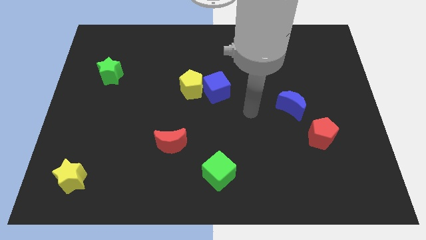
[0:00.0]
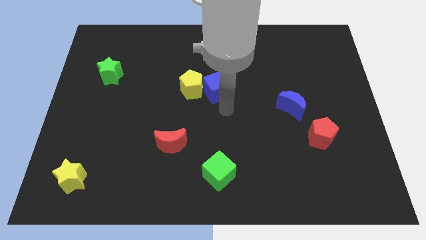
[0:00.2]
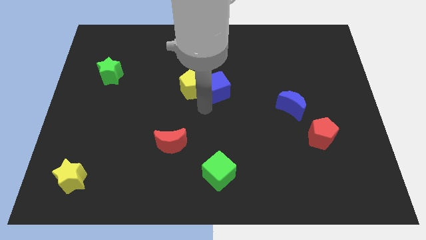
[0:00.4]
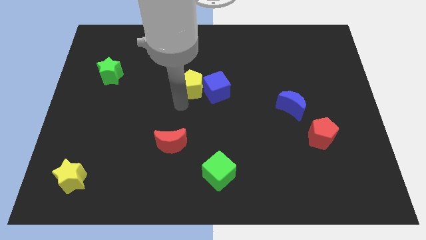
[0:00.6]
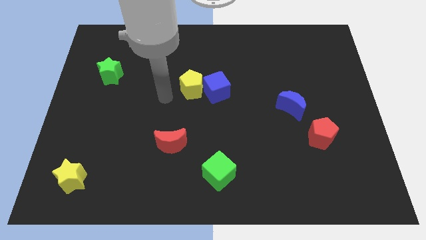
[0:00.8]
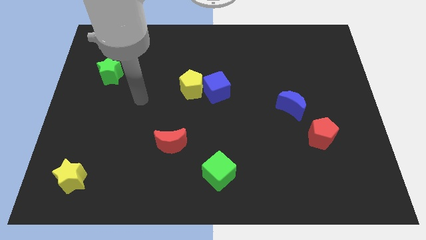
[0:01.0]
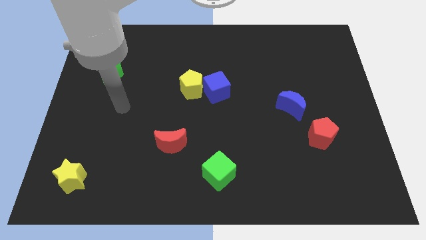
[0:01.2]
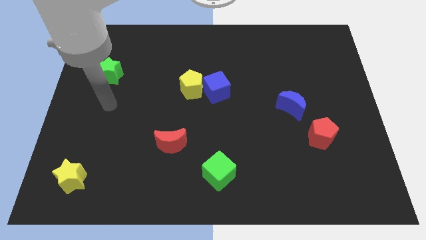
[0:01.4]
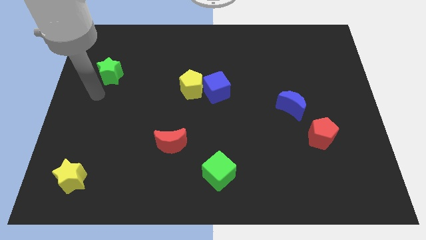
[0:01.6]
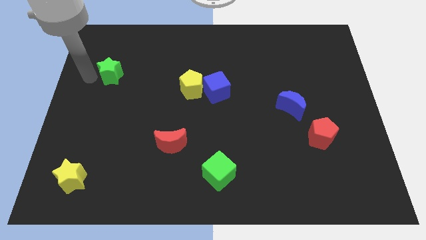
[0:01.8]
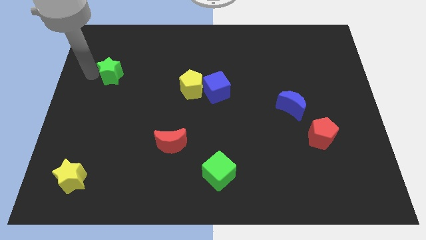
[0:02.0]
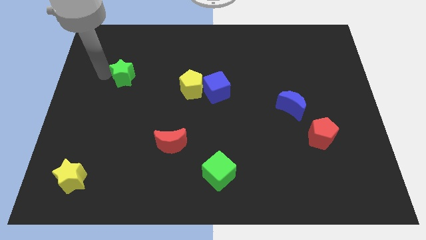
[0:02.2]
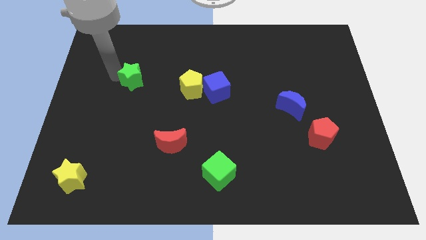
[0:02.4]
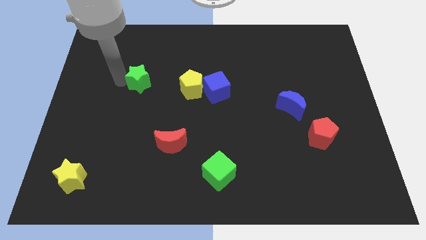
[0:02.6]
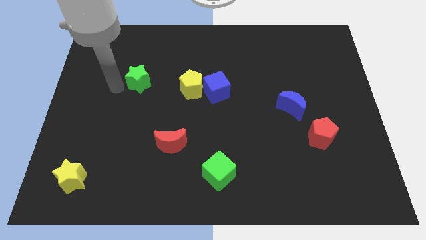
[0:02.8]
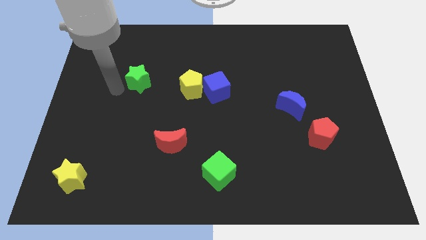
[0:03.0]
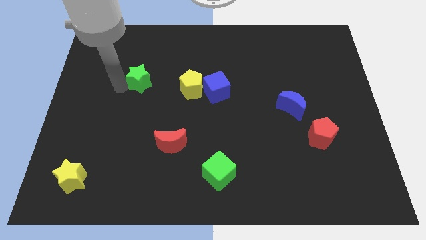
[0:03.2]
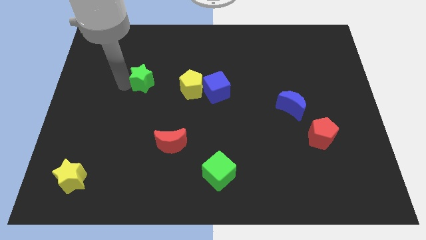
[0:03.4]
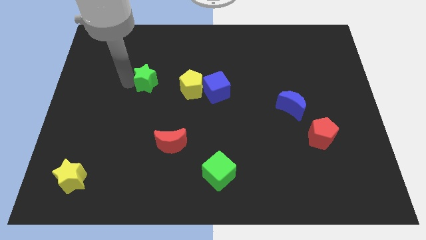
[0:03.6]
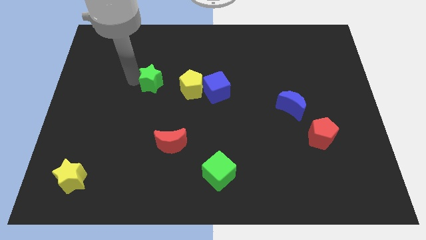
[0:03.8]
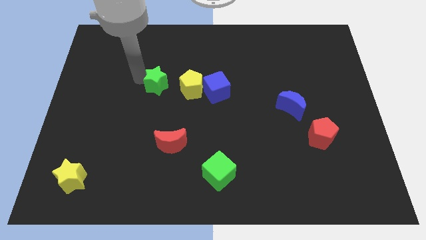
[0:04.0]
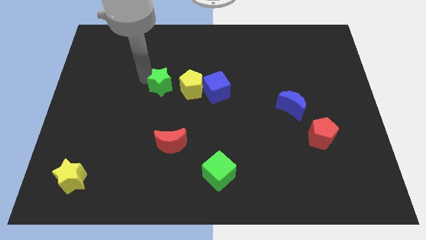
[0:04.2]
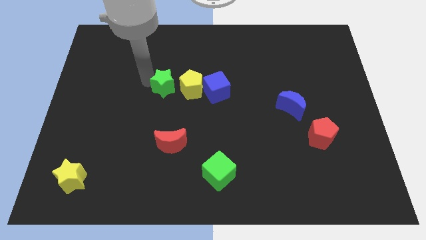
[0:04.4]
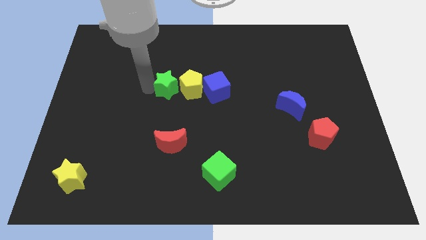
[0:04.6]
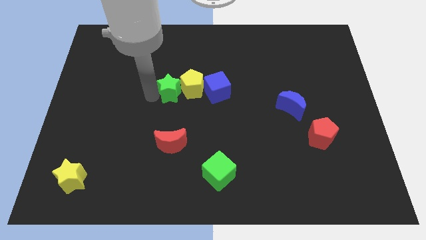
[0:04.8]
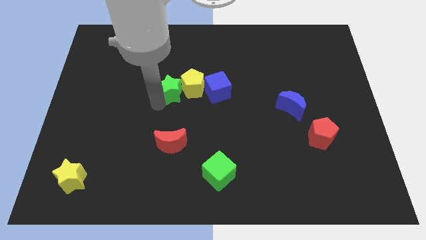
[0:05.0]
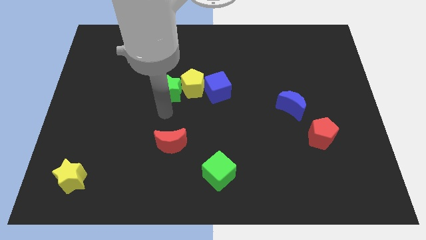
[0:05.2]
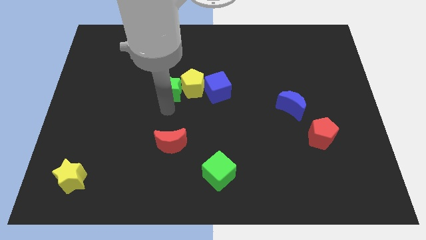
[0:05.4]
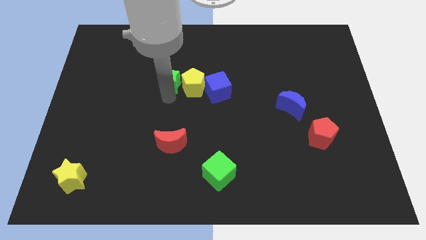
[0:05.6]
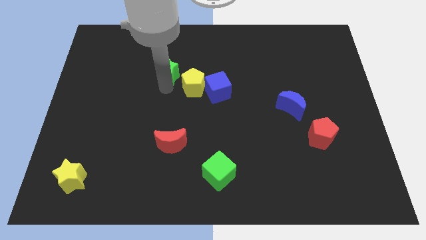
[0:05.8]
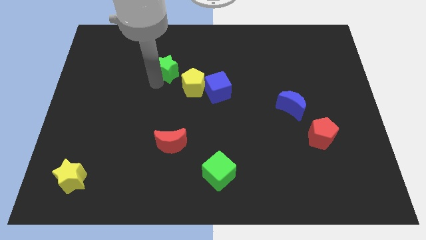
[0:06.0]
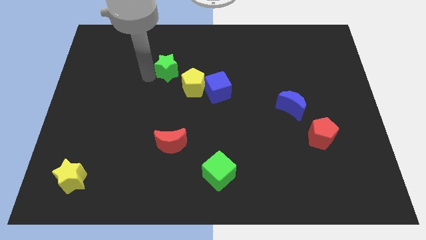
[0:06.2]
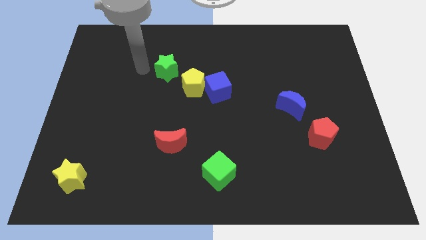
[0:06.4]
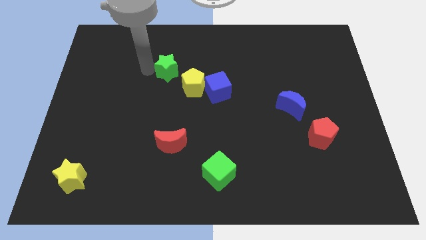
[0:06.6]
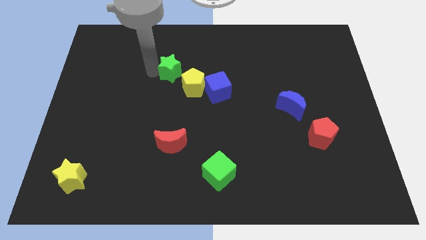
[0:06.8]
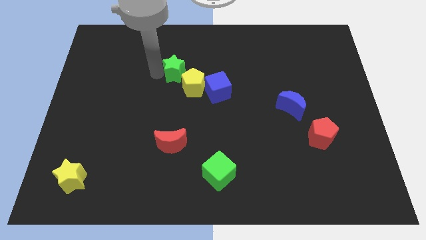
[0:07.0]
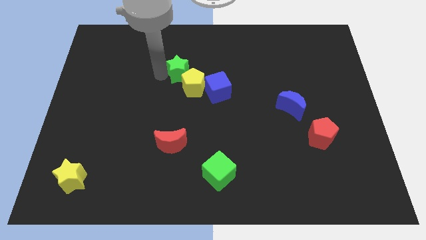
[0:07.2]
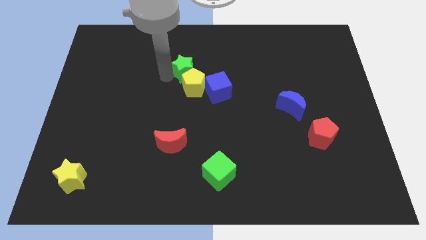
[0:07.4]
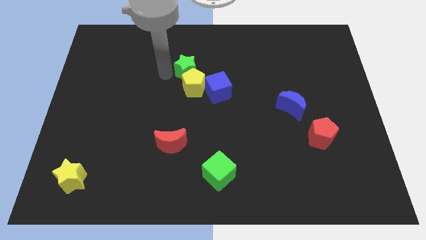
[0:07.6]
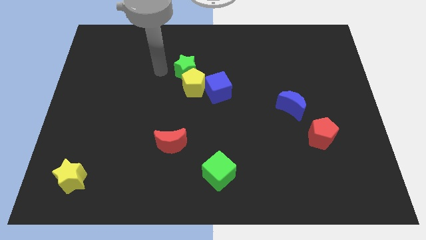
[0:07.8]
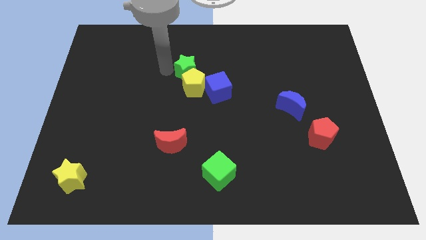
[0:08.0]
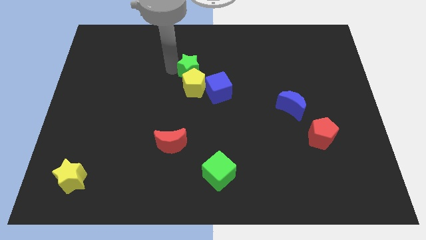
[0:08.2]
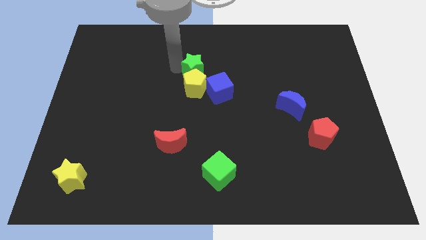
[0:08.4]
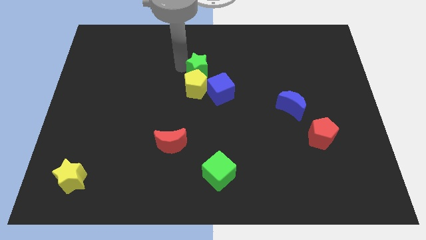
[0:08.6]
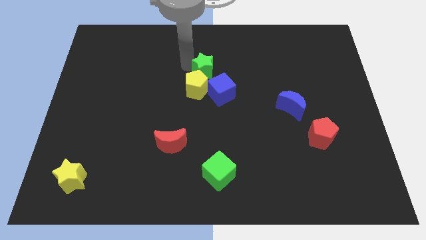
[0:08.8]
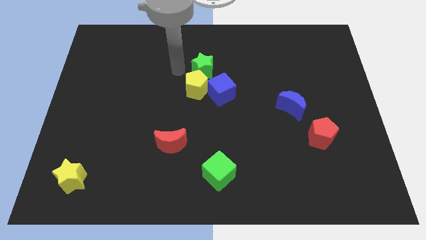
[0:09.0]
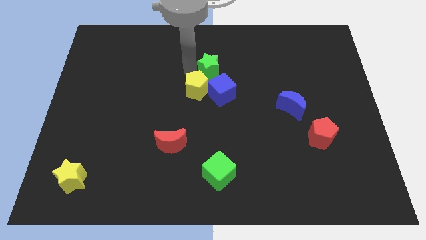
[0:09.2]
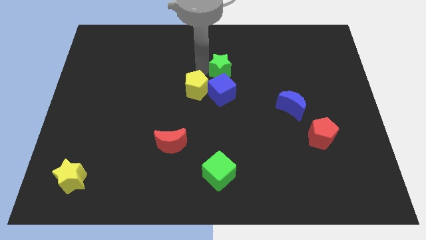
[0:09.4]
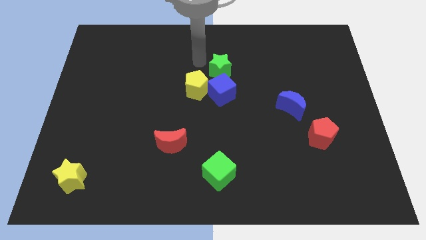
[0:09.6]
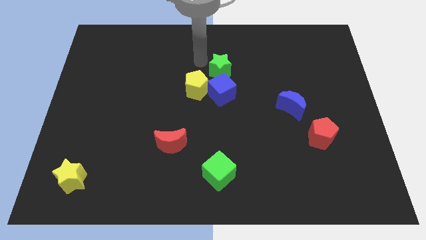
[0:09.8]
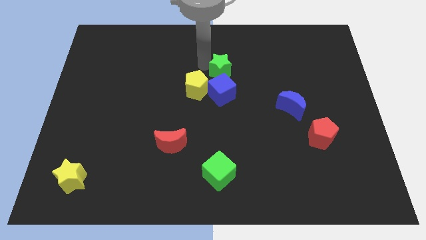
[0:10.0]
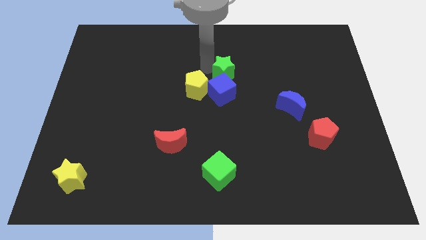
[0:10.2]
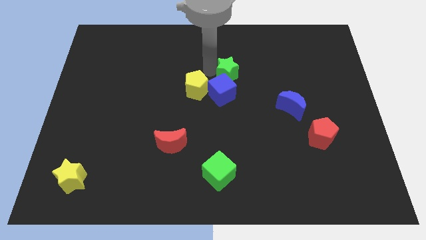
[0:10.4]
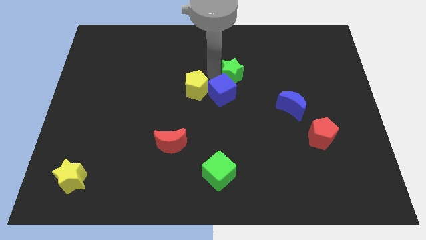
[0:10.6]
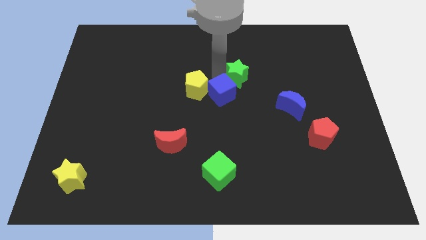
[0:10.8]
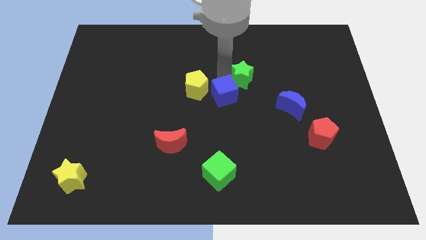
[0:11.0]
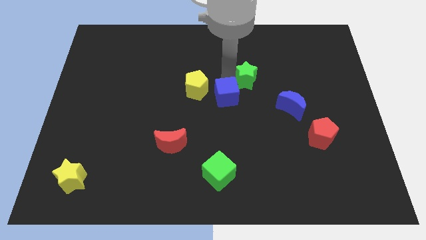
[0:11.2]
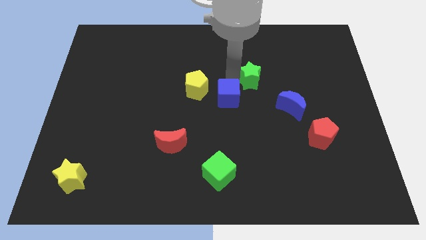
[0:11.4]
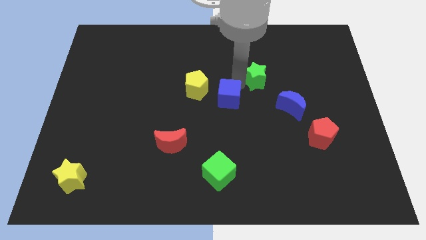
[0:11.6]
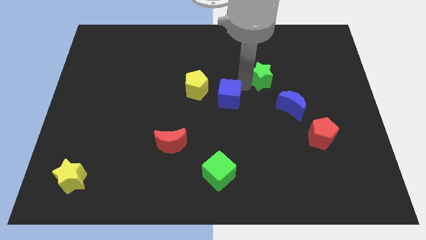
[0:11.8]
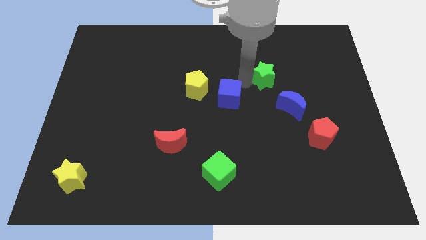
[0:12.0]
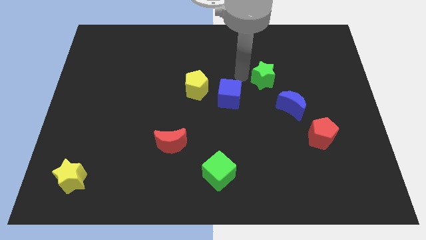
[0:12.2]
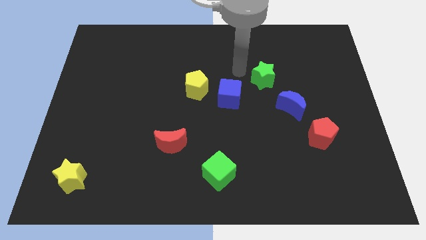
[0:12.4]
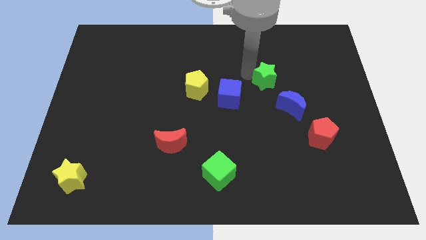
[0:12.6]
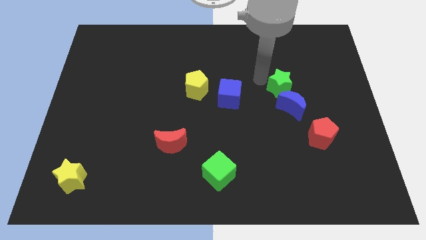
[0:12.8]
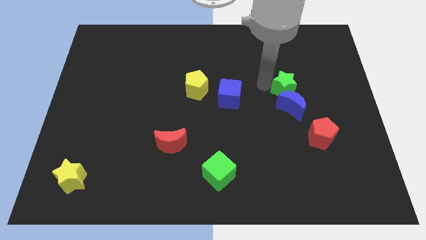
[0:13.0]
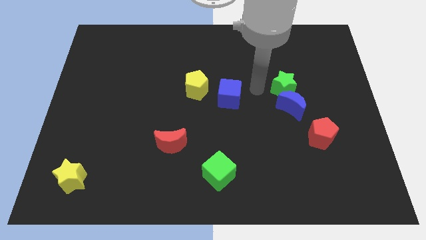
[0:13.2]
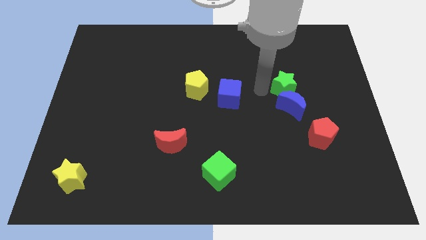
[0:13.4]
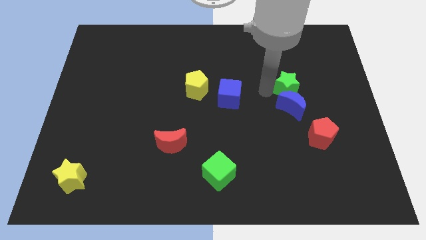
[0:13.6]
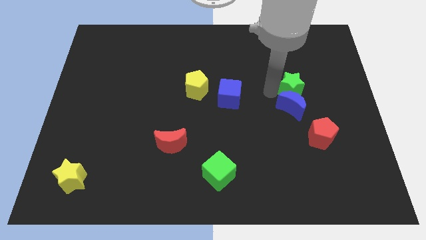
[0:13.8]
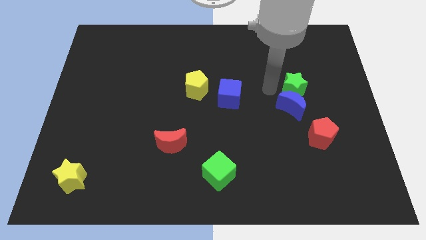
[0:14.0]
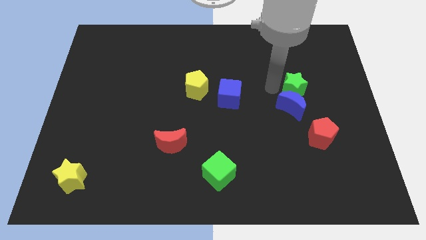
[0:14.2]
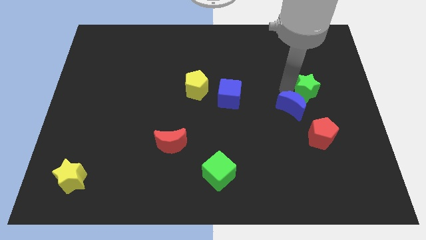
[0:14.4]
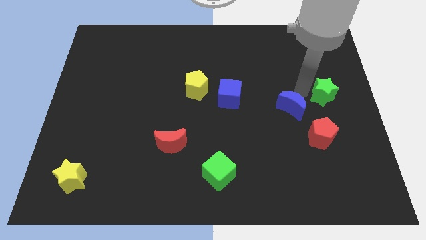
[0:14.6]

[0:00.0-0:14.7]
move the green star to the right side

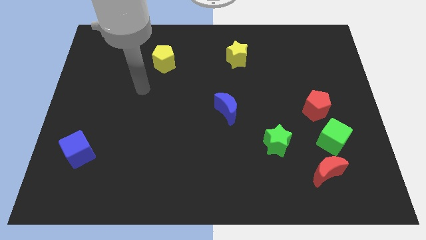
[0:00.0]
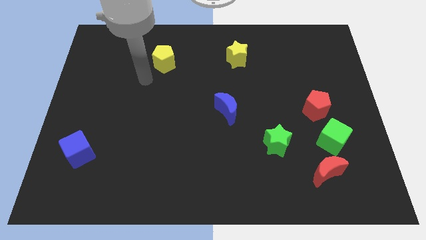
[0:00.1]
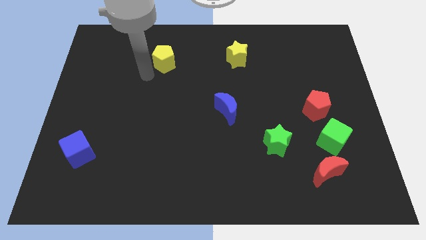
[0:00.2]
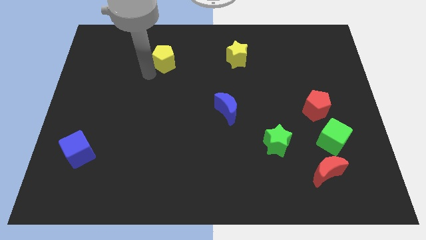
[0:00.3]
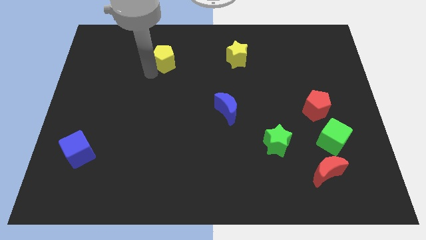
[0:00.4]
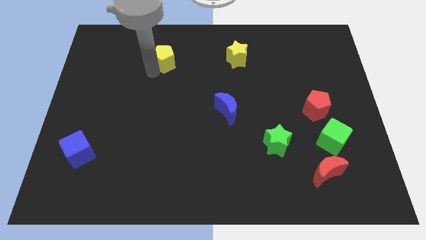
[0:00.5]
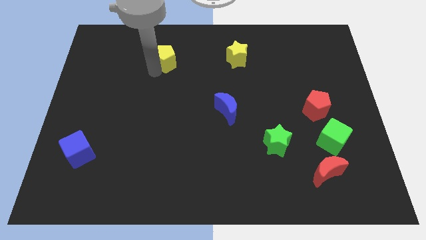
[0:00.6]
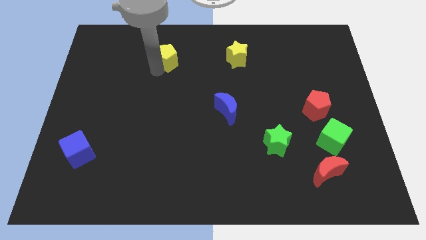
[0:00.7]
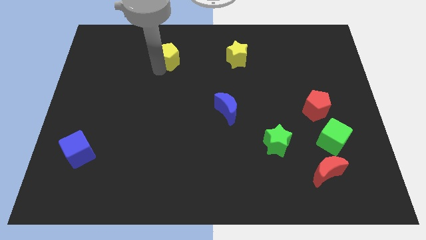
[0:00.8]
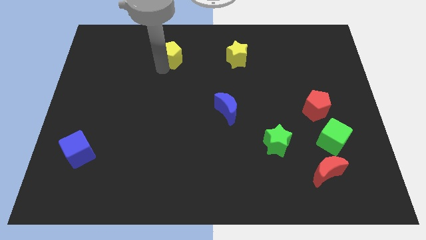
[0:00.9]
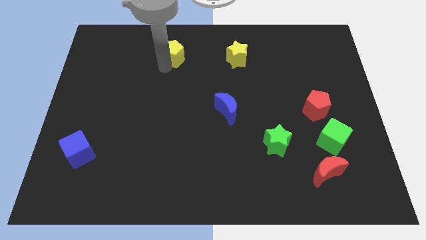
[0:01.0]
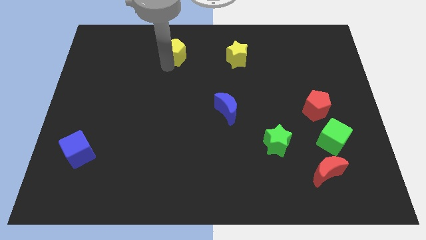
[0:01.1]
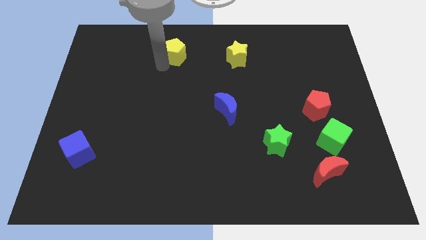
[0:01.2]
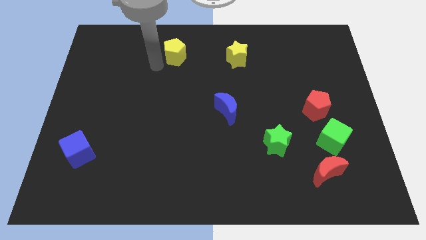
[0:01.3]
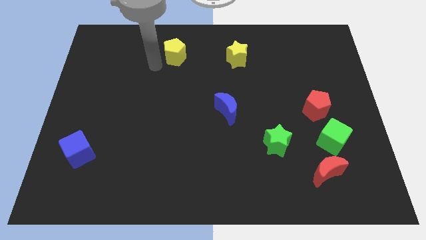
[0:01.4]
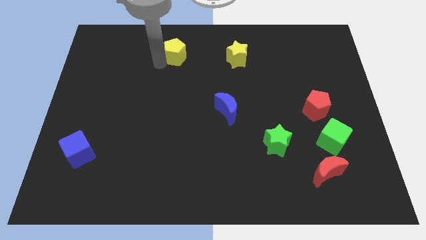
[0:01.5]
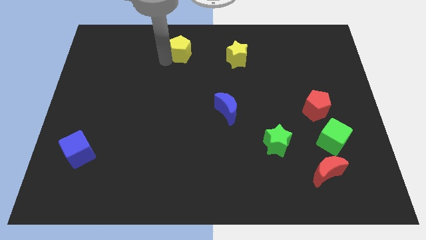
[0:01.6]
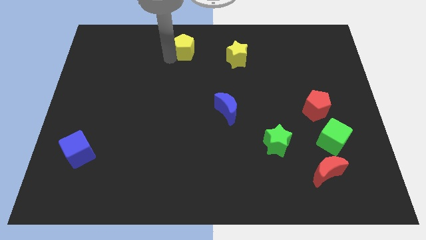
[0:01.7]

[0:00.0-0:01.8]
move the yellow pentagon to the top
